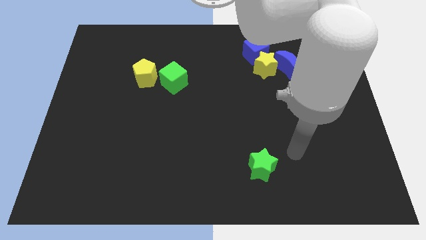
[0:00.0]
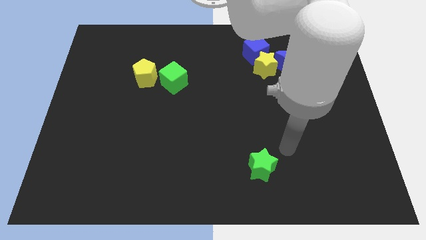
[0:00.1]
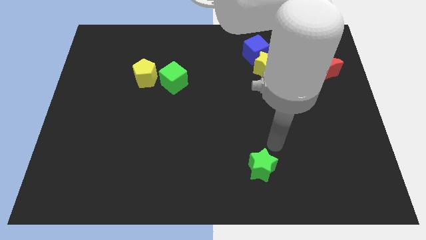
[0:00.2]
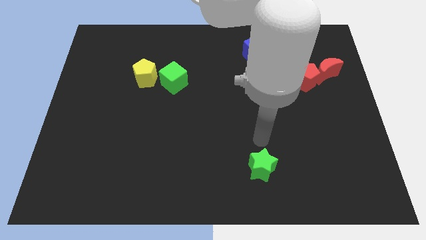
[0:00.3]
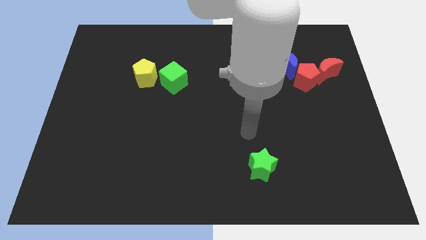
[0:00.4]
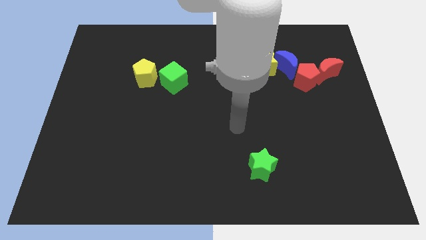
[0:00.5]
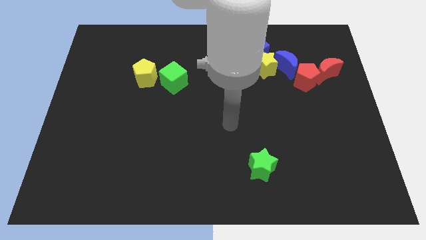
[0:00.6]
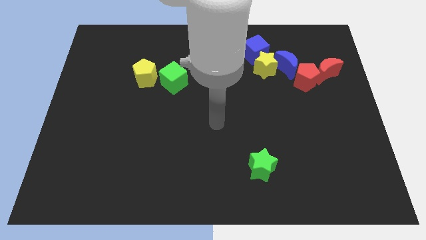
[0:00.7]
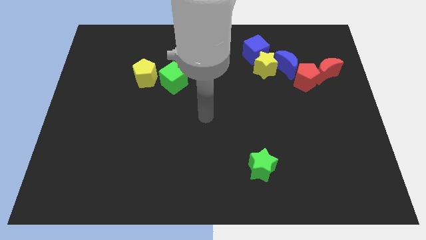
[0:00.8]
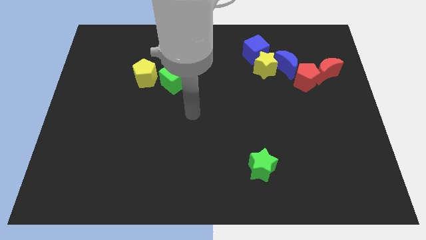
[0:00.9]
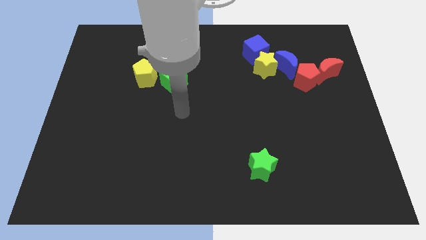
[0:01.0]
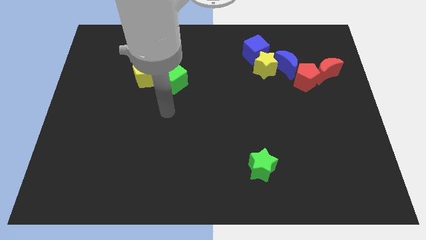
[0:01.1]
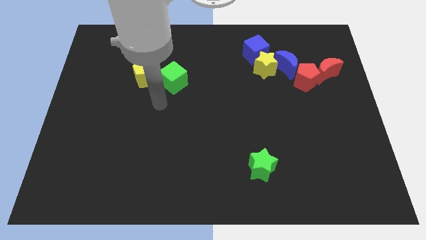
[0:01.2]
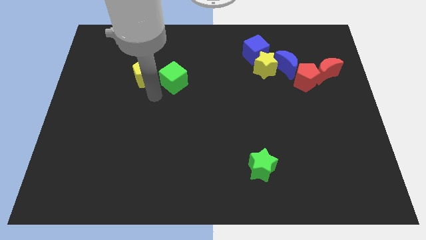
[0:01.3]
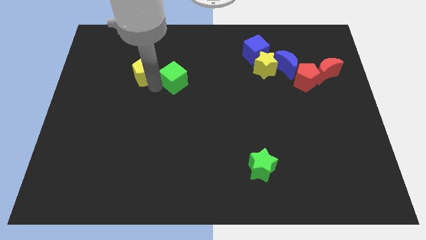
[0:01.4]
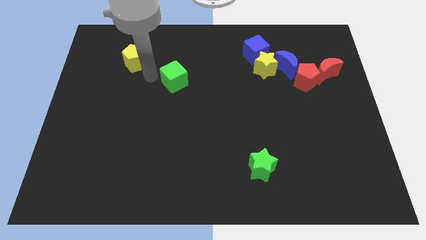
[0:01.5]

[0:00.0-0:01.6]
separate the green cube from the yellow pentagon

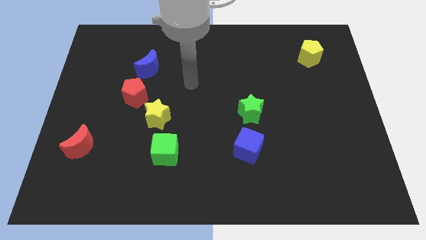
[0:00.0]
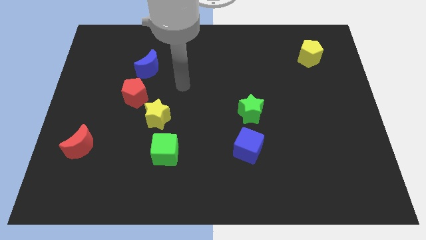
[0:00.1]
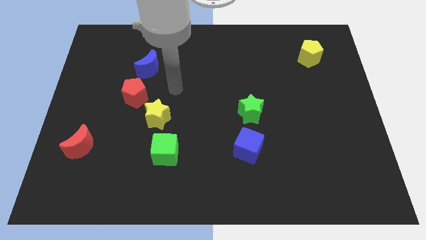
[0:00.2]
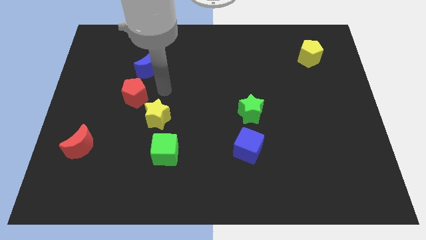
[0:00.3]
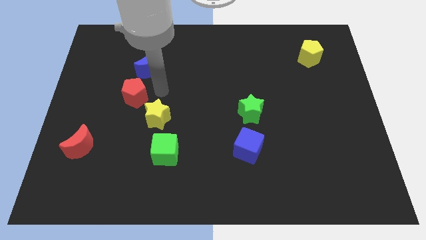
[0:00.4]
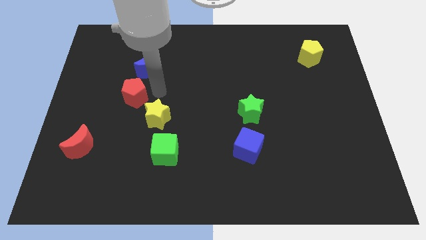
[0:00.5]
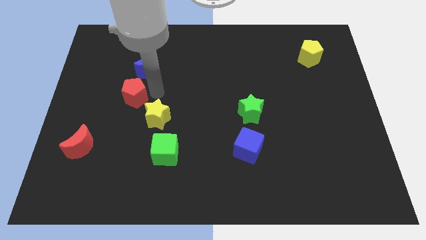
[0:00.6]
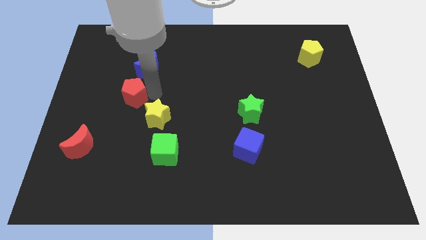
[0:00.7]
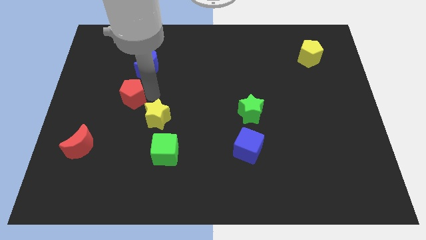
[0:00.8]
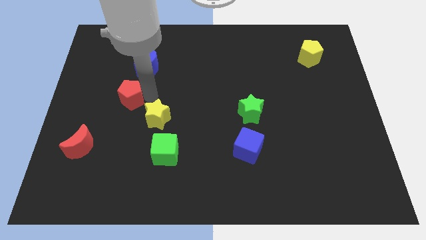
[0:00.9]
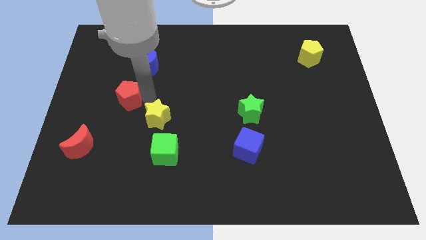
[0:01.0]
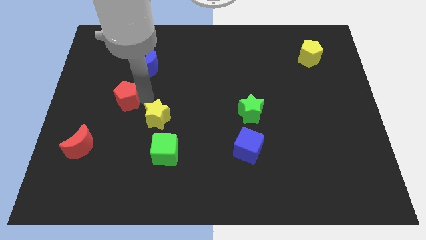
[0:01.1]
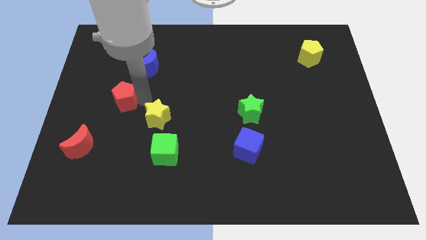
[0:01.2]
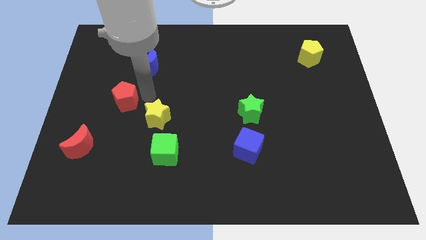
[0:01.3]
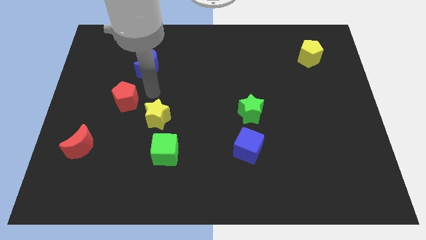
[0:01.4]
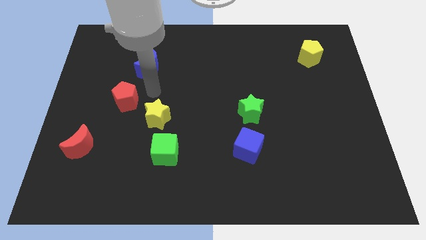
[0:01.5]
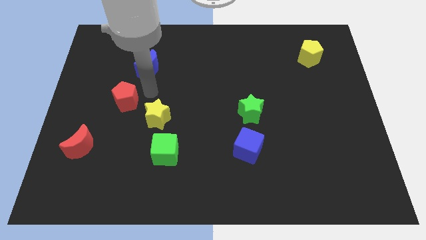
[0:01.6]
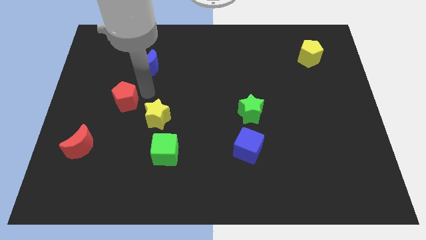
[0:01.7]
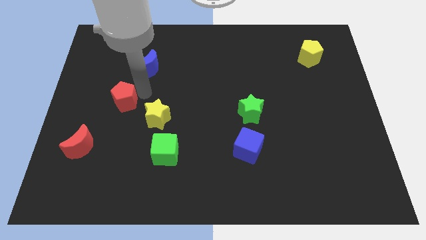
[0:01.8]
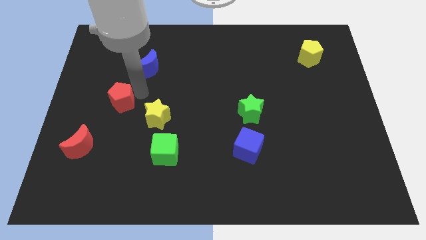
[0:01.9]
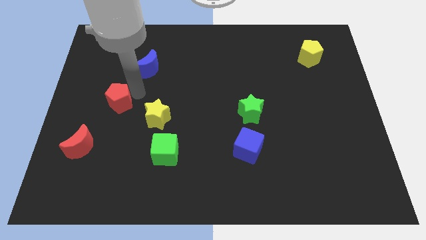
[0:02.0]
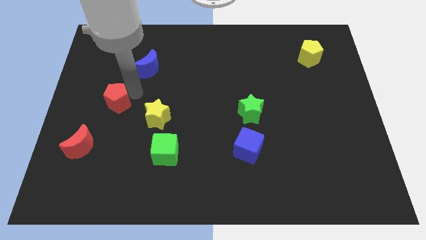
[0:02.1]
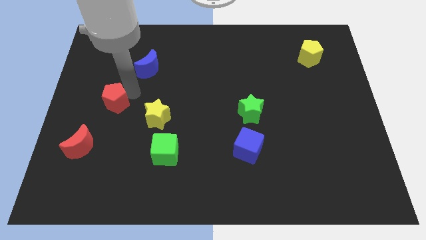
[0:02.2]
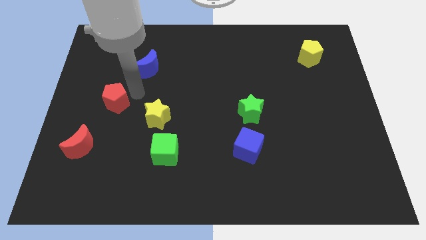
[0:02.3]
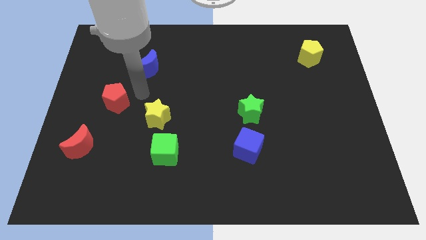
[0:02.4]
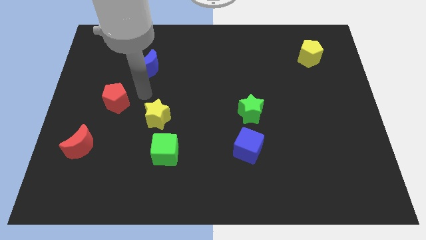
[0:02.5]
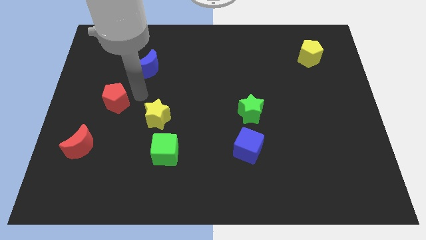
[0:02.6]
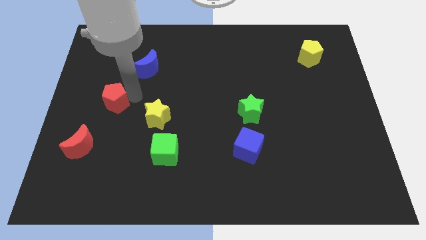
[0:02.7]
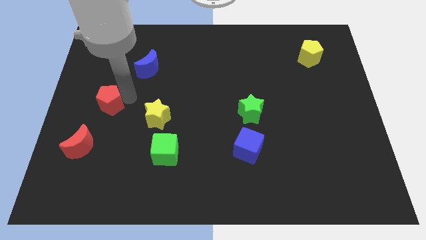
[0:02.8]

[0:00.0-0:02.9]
move the red pentagon away from the yellow star and blue moon

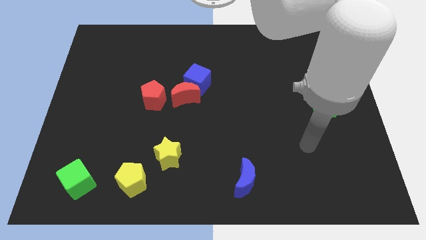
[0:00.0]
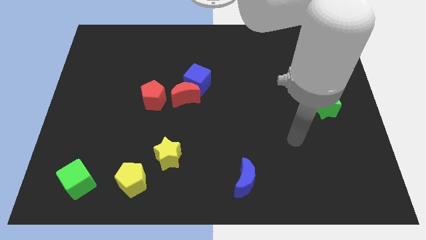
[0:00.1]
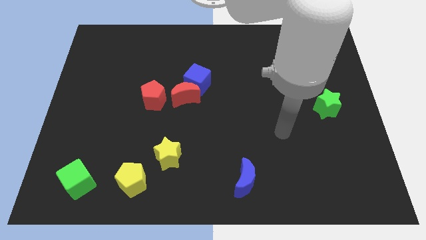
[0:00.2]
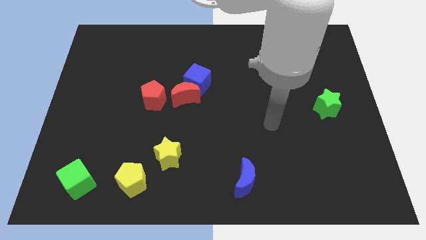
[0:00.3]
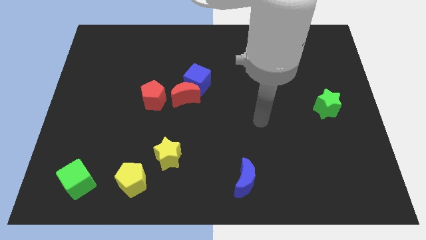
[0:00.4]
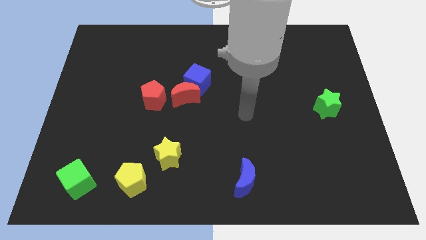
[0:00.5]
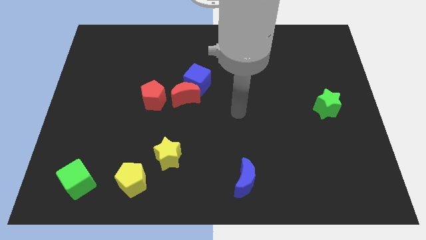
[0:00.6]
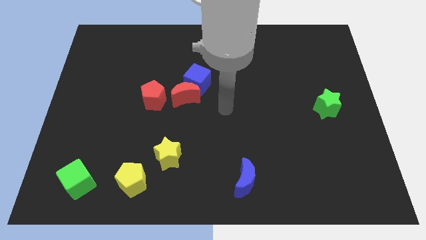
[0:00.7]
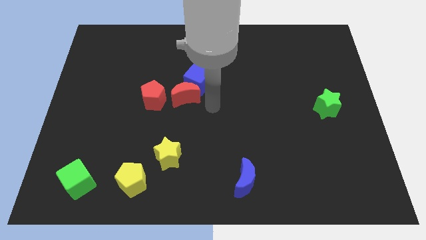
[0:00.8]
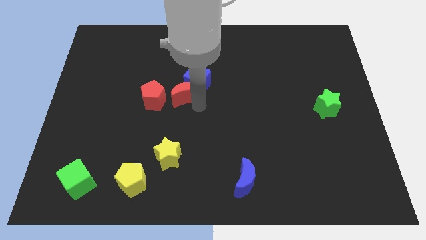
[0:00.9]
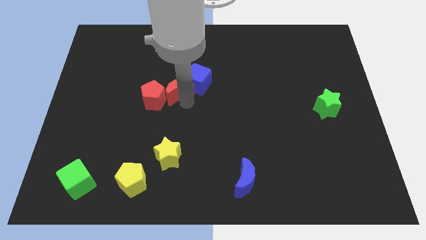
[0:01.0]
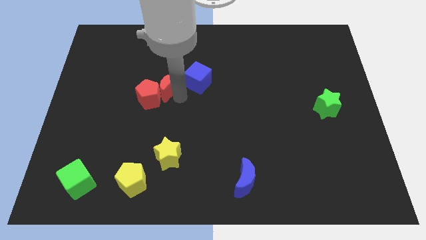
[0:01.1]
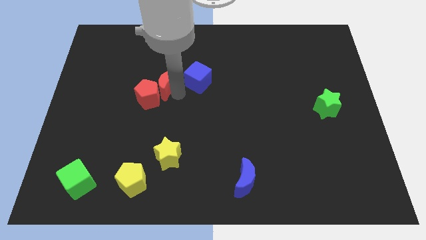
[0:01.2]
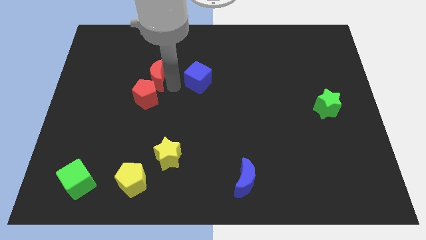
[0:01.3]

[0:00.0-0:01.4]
move the blue cube away from the red moon

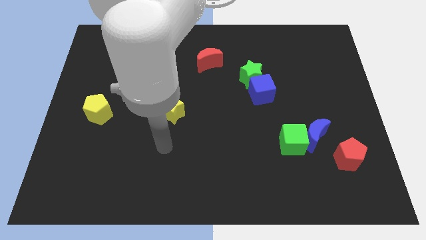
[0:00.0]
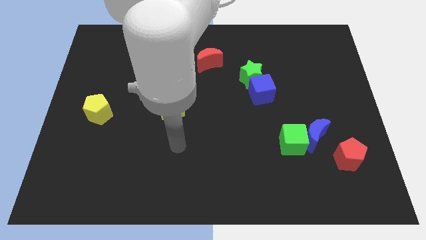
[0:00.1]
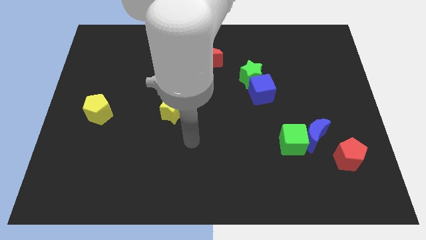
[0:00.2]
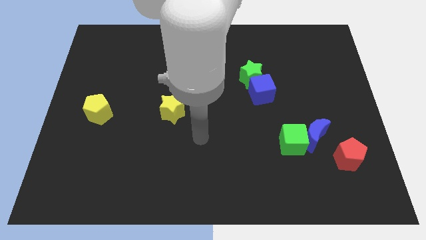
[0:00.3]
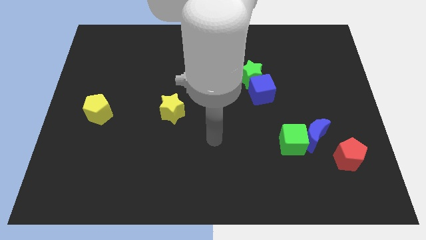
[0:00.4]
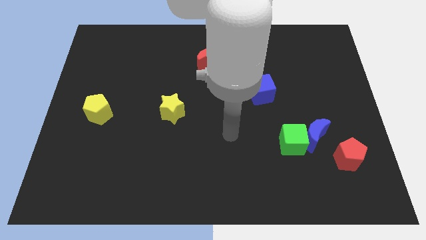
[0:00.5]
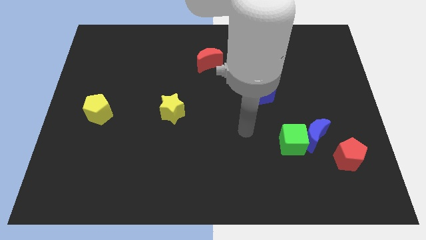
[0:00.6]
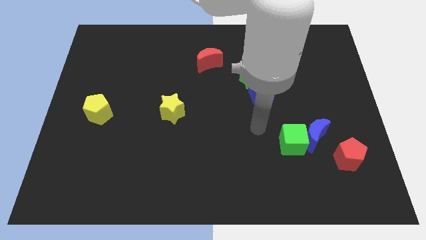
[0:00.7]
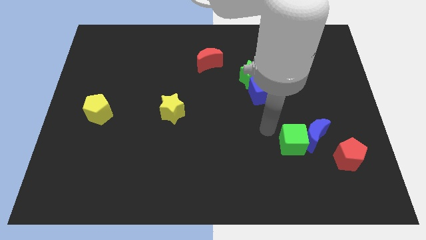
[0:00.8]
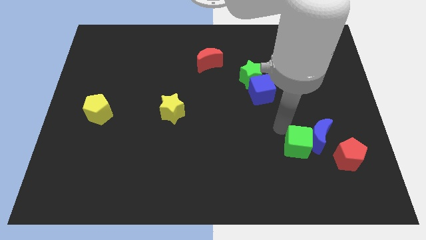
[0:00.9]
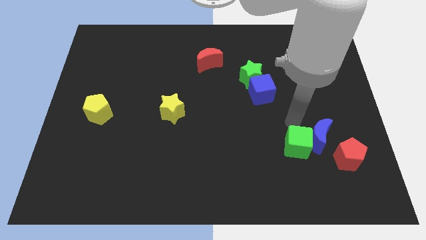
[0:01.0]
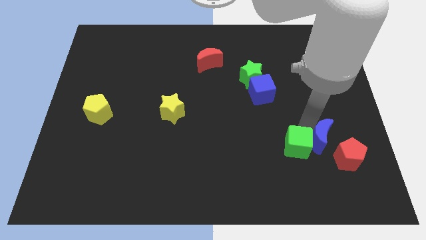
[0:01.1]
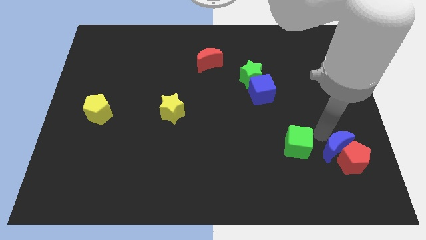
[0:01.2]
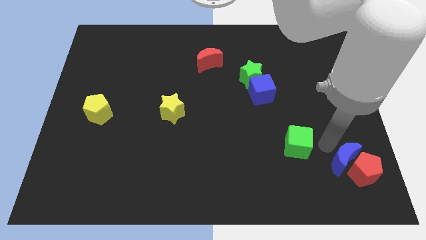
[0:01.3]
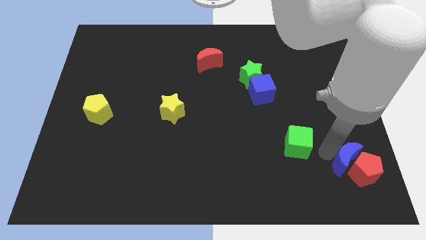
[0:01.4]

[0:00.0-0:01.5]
separate the green cube from the blue moon

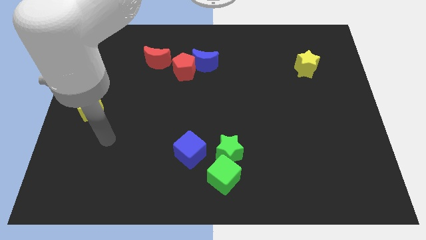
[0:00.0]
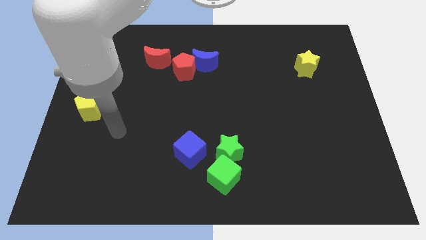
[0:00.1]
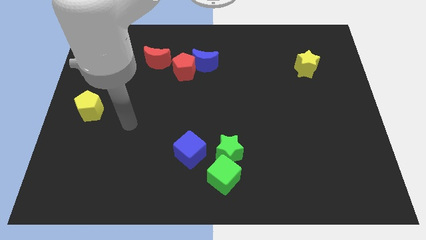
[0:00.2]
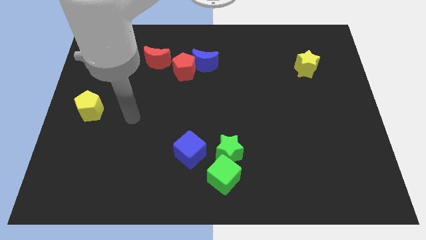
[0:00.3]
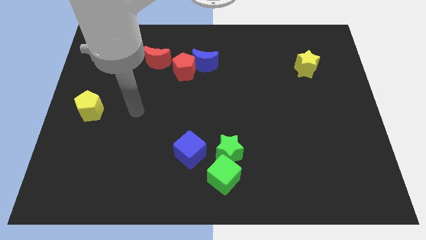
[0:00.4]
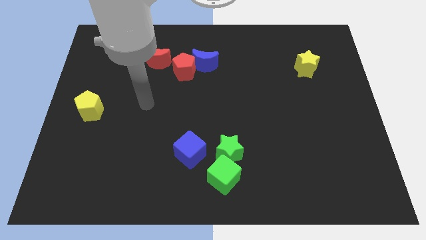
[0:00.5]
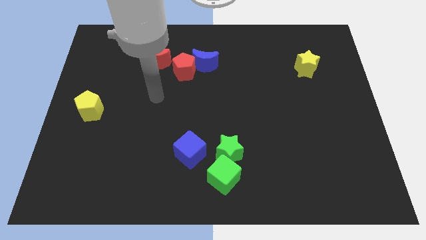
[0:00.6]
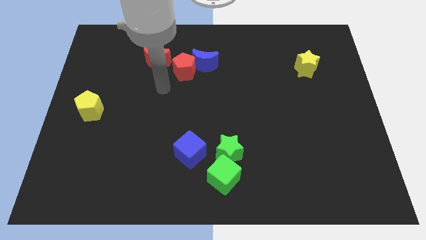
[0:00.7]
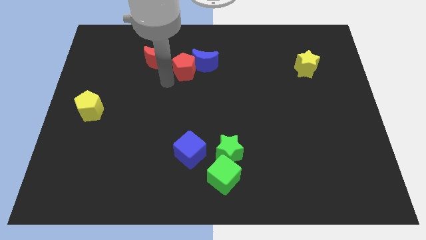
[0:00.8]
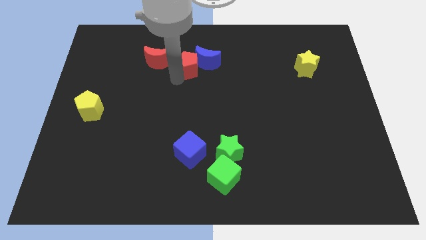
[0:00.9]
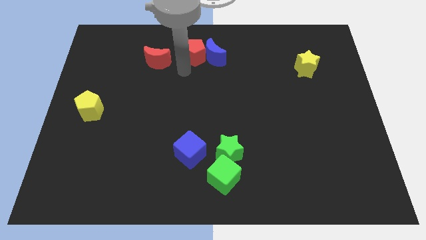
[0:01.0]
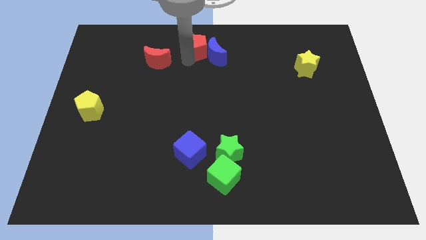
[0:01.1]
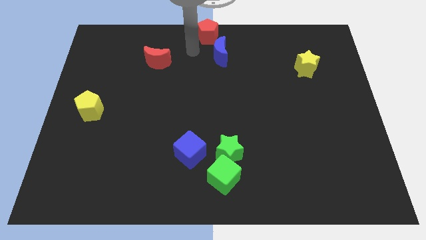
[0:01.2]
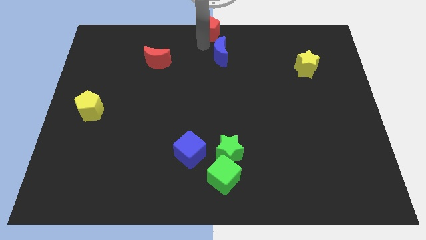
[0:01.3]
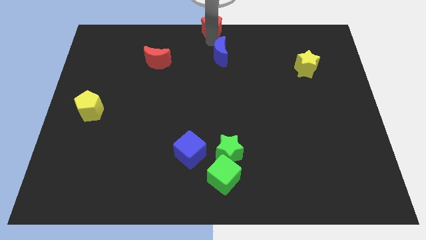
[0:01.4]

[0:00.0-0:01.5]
separate the blue moon from the red pentagon

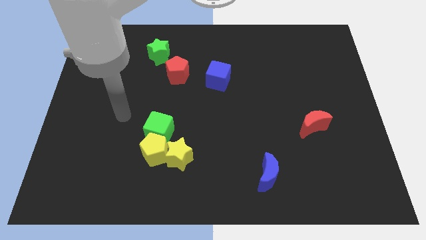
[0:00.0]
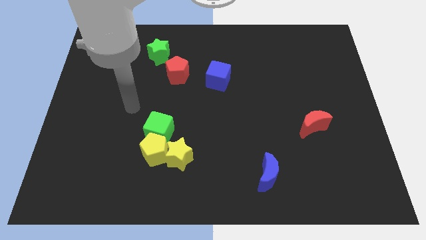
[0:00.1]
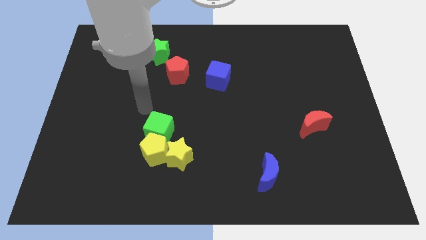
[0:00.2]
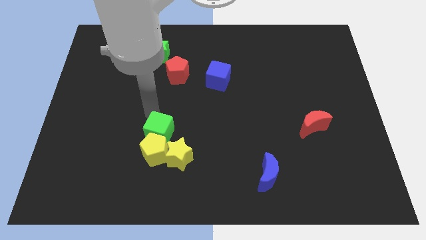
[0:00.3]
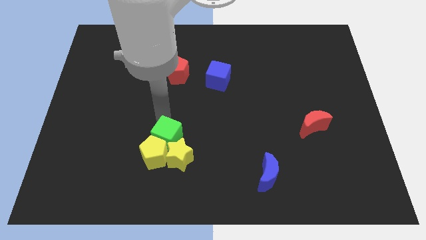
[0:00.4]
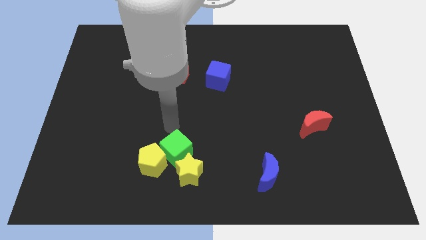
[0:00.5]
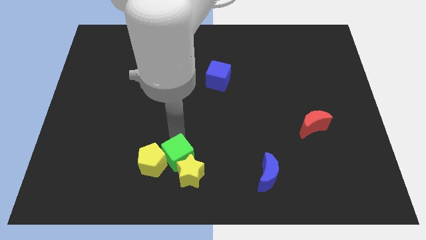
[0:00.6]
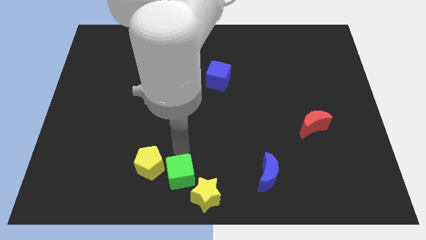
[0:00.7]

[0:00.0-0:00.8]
move the yellow pentagon away from the yellow star and green cube
